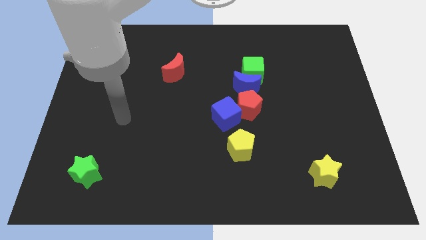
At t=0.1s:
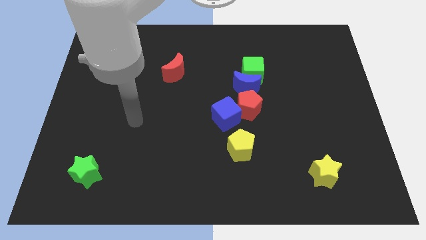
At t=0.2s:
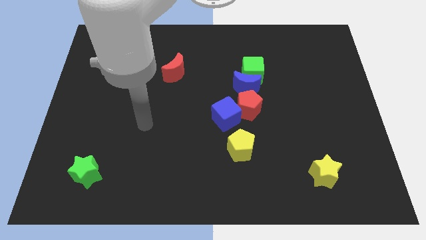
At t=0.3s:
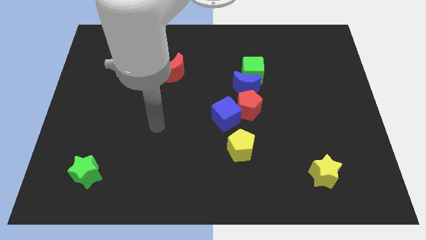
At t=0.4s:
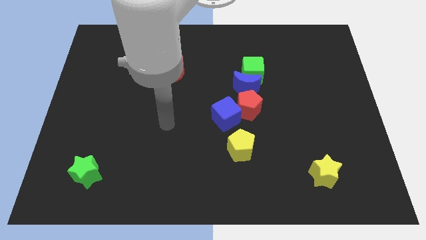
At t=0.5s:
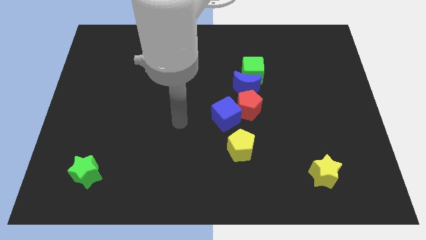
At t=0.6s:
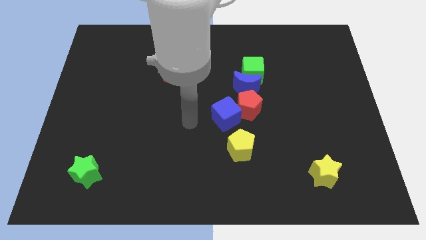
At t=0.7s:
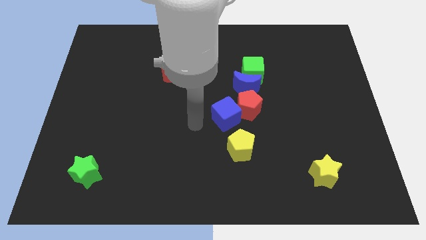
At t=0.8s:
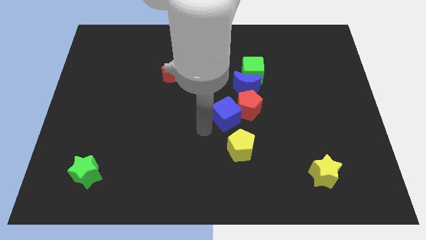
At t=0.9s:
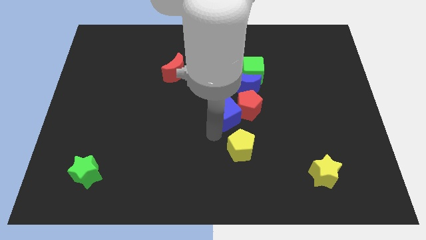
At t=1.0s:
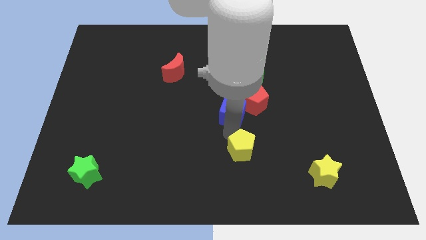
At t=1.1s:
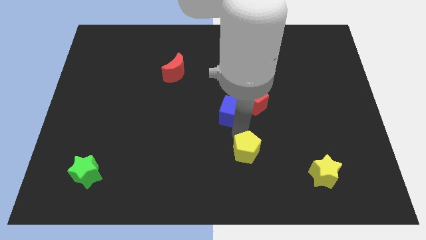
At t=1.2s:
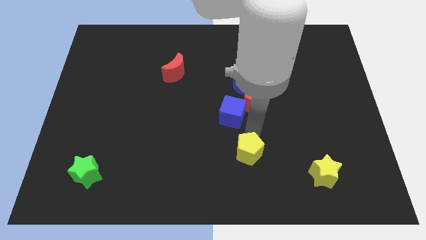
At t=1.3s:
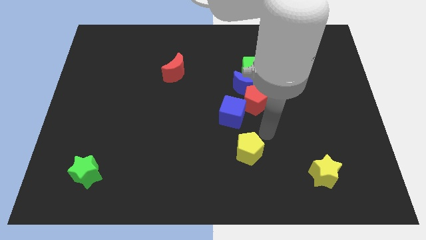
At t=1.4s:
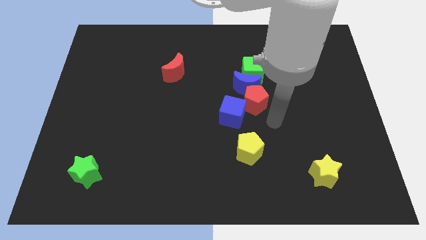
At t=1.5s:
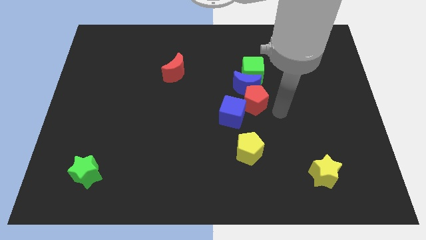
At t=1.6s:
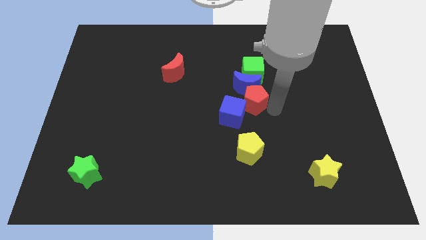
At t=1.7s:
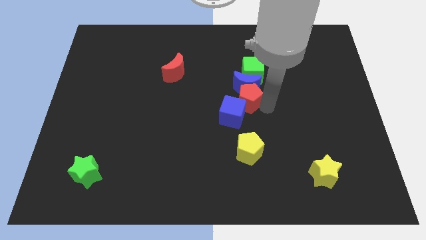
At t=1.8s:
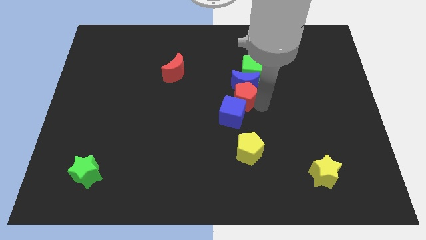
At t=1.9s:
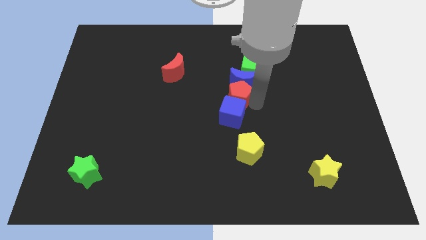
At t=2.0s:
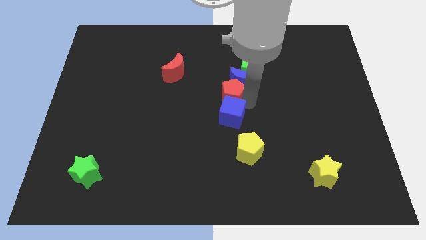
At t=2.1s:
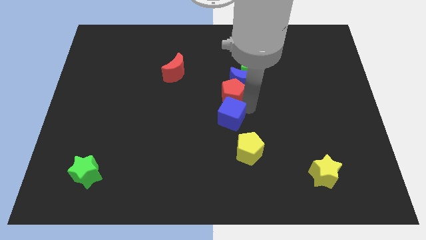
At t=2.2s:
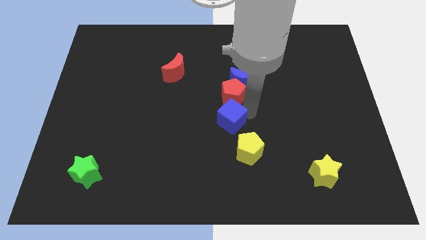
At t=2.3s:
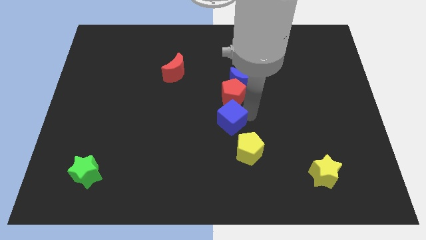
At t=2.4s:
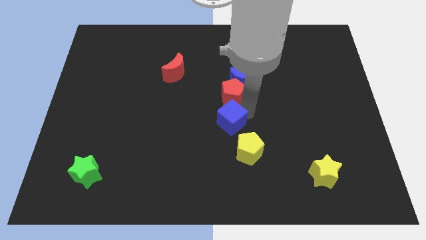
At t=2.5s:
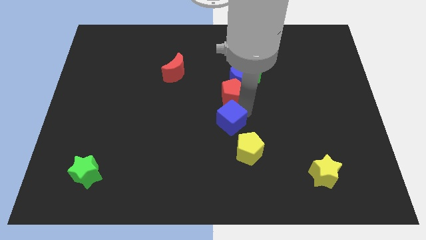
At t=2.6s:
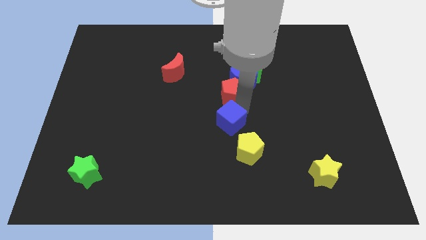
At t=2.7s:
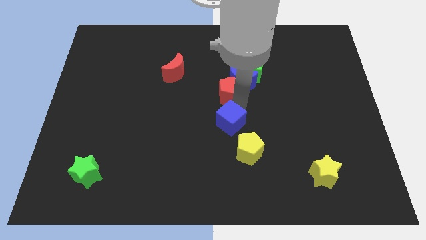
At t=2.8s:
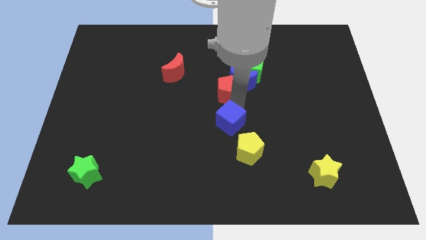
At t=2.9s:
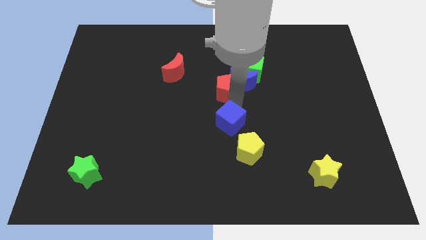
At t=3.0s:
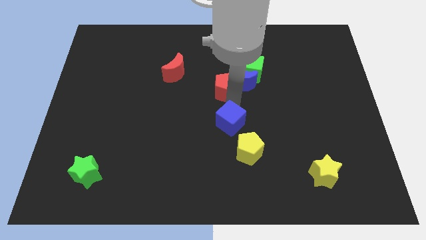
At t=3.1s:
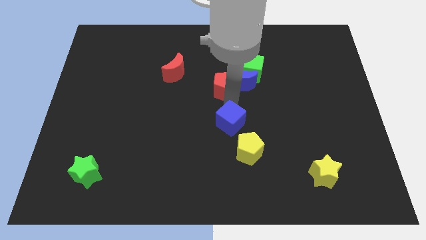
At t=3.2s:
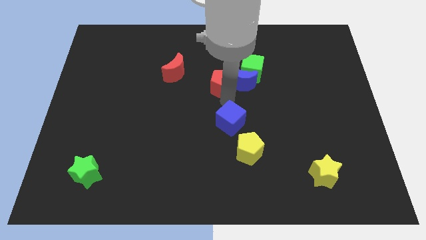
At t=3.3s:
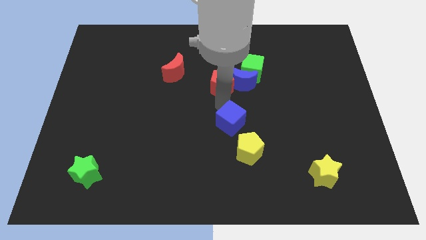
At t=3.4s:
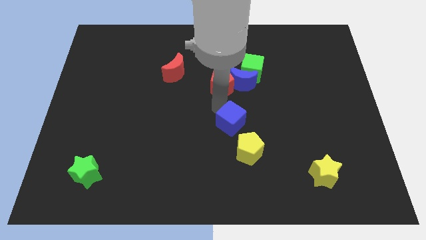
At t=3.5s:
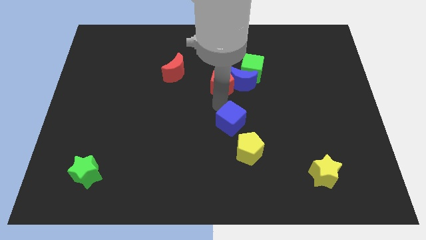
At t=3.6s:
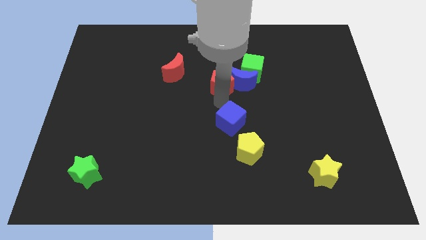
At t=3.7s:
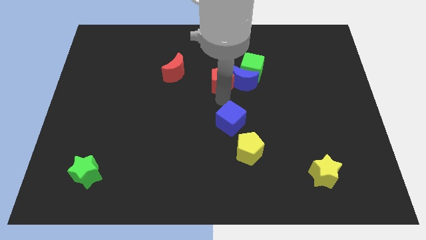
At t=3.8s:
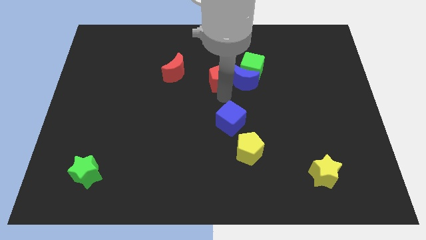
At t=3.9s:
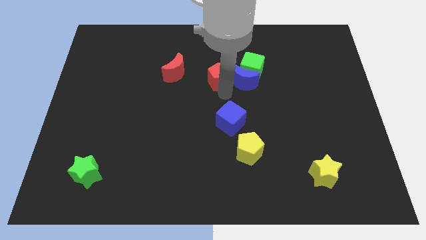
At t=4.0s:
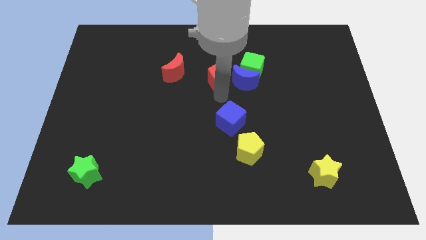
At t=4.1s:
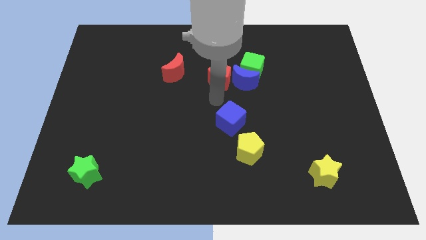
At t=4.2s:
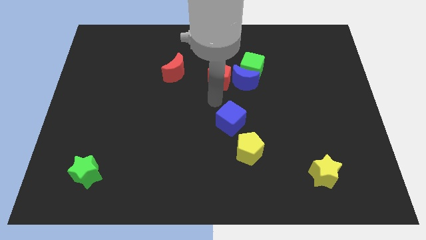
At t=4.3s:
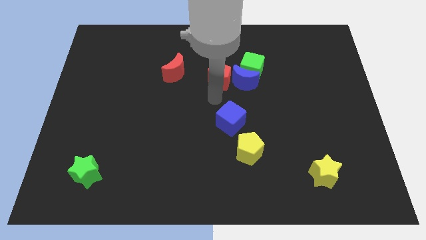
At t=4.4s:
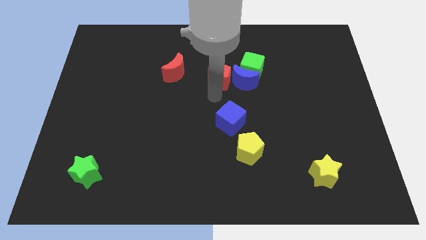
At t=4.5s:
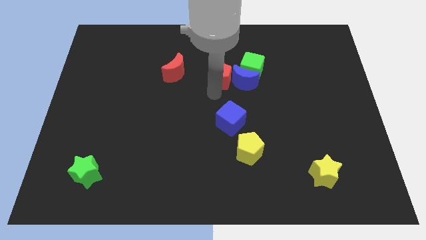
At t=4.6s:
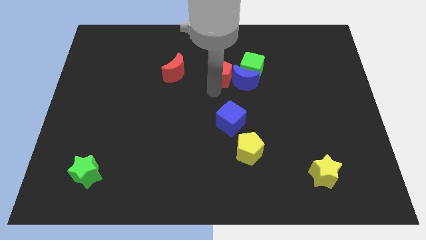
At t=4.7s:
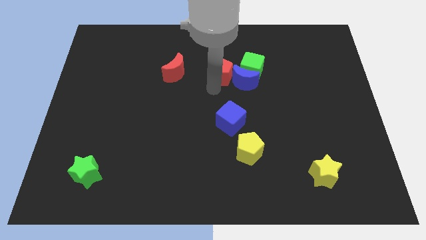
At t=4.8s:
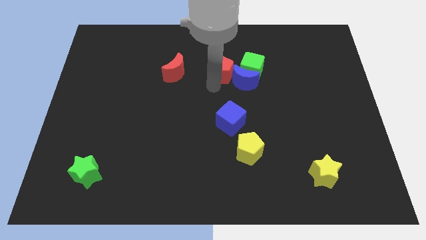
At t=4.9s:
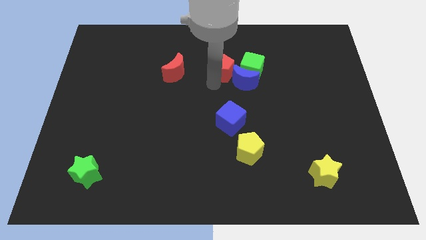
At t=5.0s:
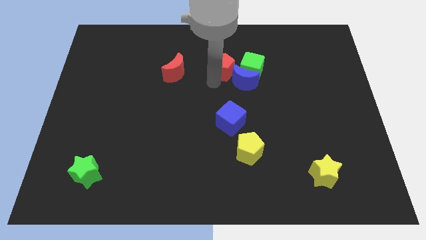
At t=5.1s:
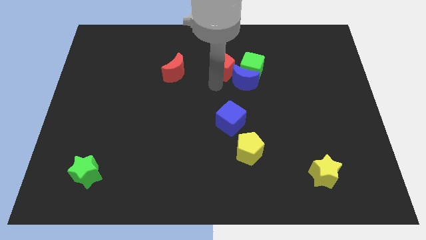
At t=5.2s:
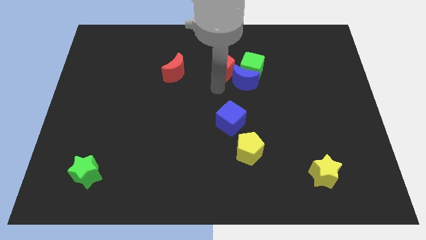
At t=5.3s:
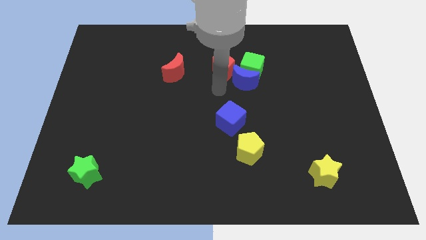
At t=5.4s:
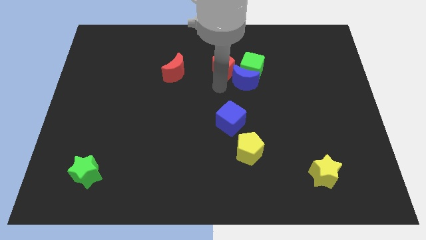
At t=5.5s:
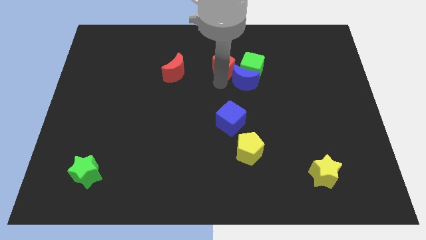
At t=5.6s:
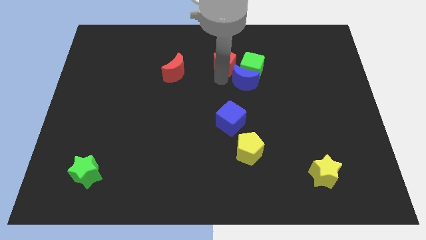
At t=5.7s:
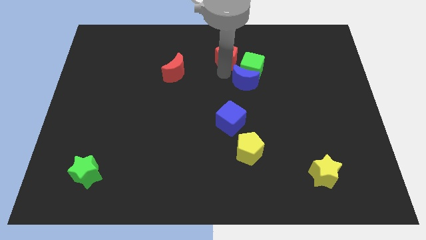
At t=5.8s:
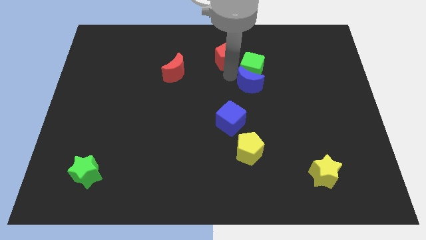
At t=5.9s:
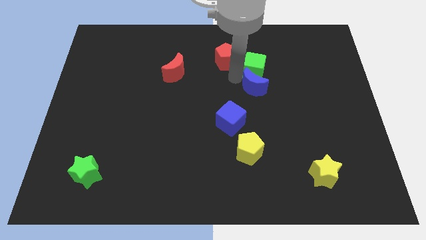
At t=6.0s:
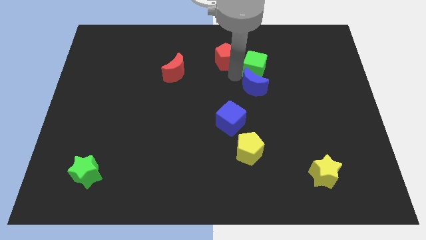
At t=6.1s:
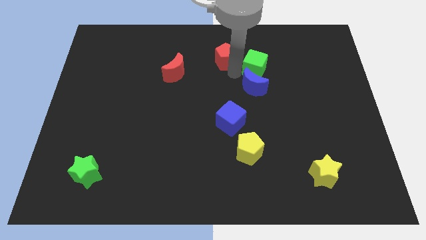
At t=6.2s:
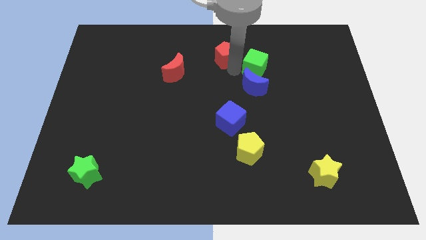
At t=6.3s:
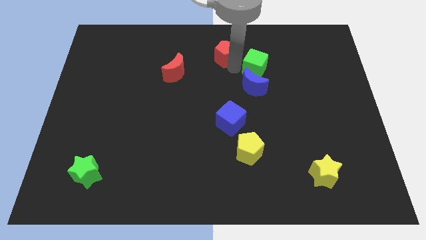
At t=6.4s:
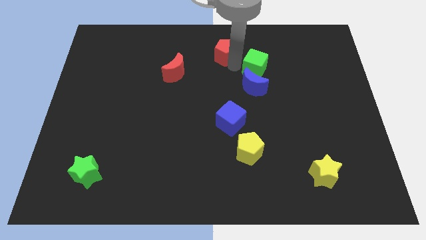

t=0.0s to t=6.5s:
move the red pentagon to the towards your base

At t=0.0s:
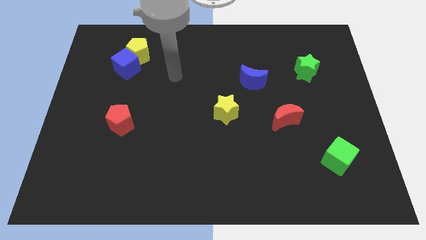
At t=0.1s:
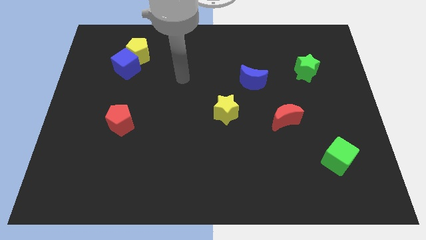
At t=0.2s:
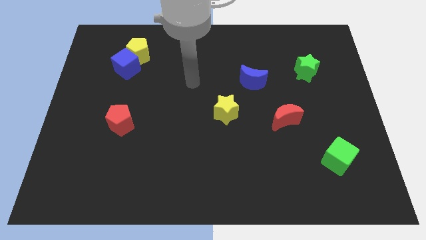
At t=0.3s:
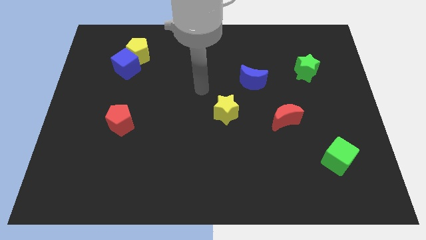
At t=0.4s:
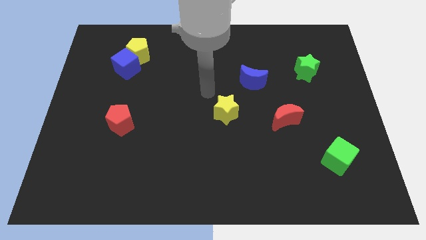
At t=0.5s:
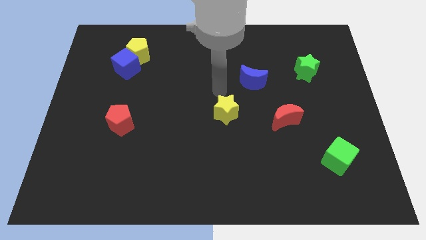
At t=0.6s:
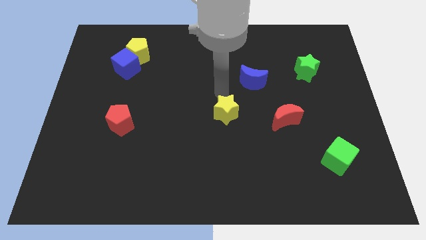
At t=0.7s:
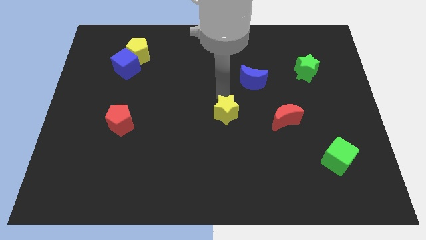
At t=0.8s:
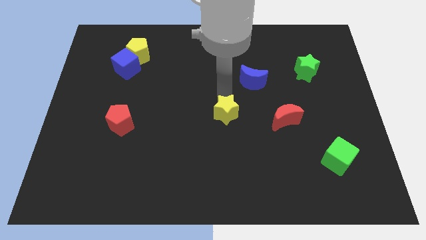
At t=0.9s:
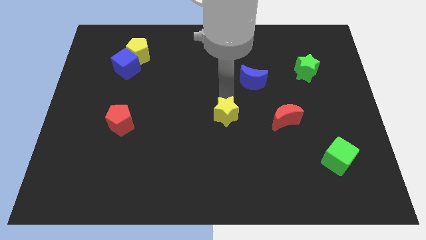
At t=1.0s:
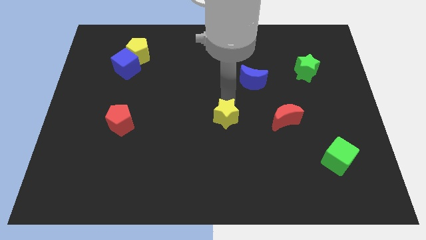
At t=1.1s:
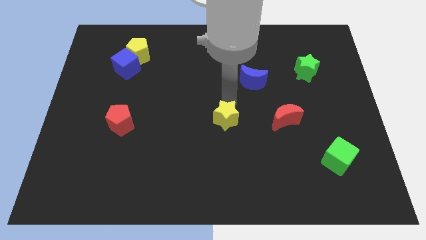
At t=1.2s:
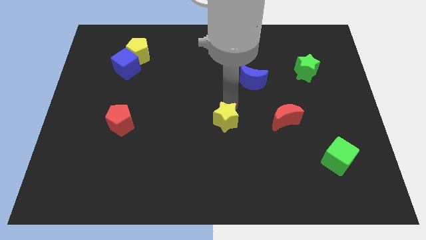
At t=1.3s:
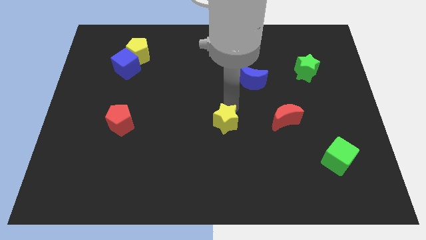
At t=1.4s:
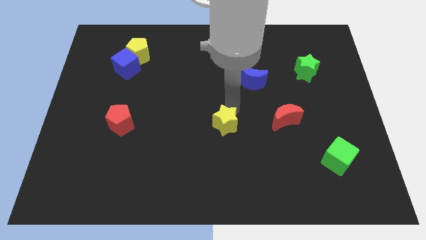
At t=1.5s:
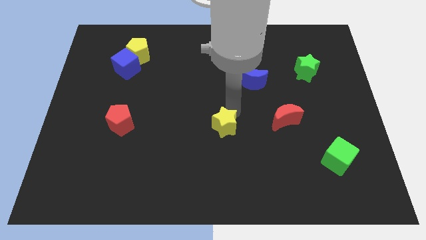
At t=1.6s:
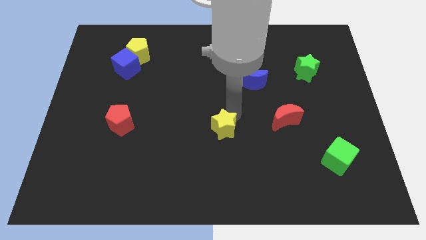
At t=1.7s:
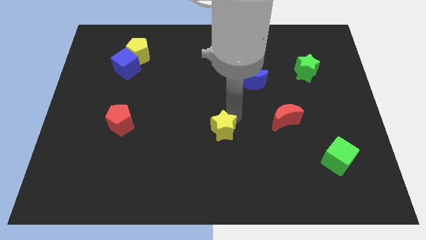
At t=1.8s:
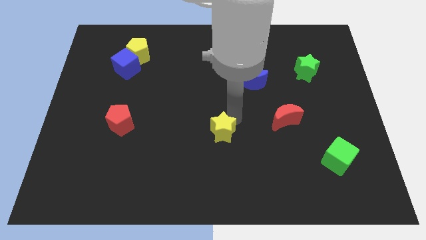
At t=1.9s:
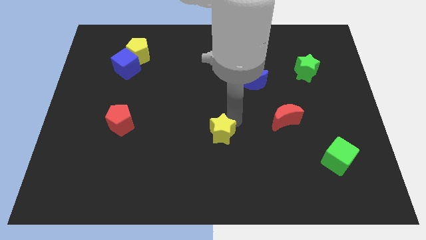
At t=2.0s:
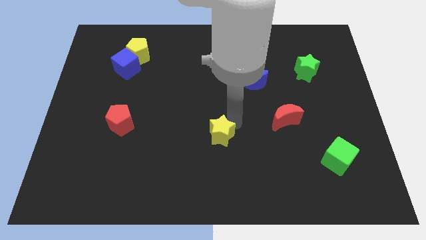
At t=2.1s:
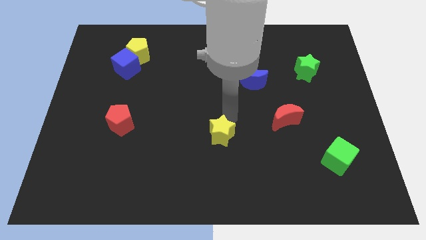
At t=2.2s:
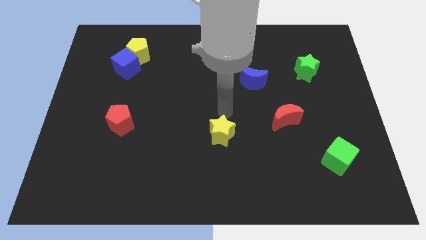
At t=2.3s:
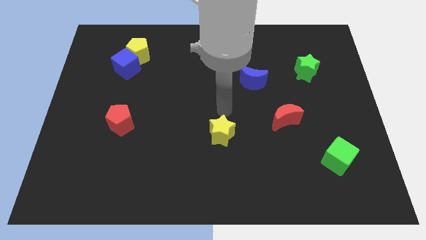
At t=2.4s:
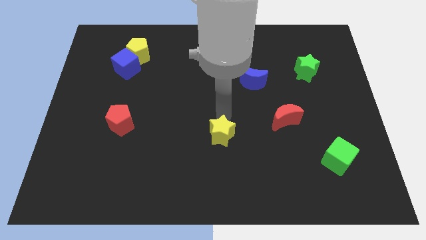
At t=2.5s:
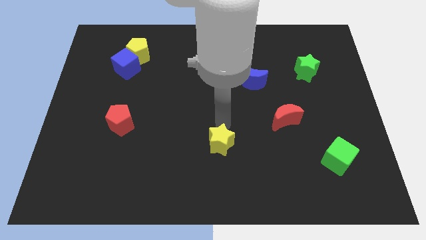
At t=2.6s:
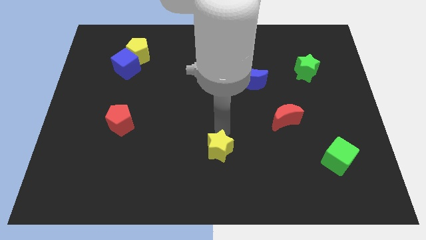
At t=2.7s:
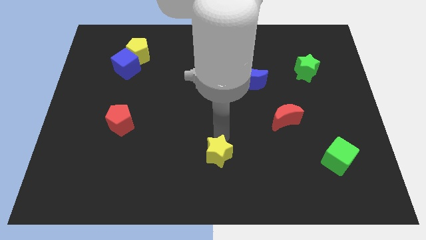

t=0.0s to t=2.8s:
slide the yellow star to the bottom side
